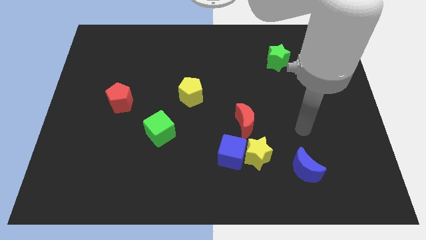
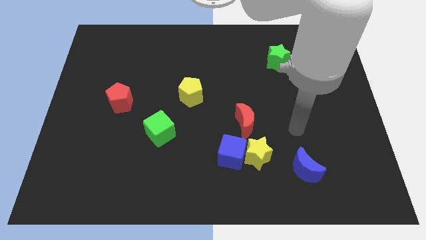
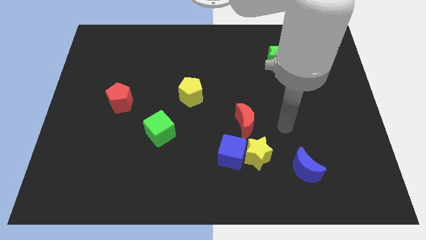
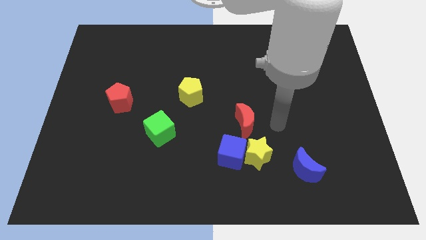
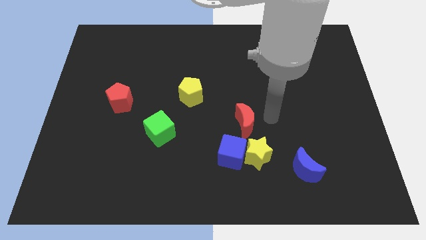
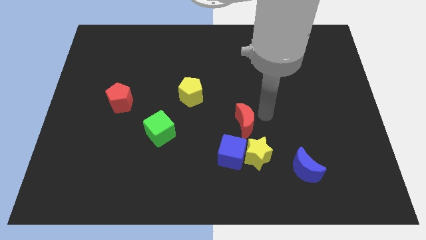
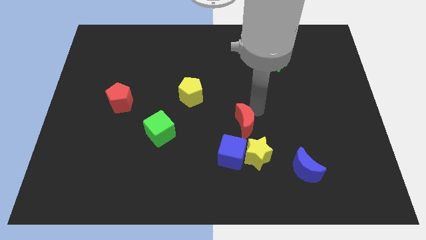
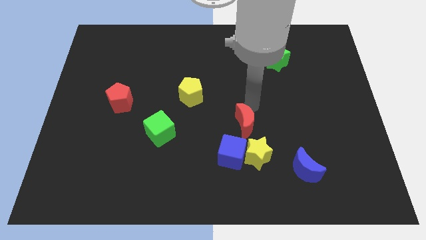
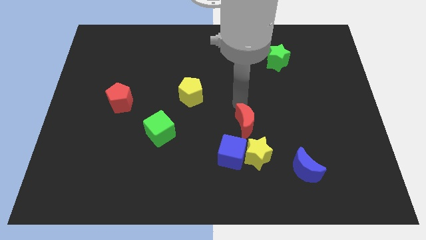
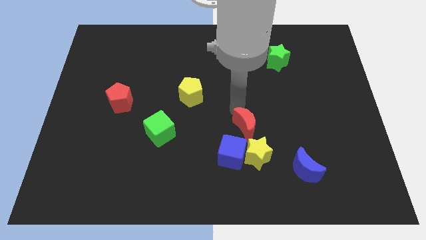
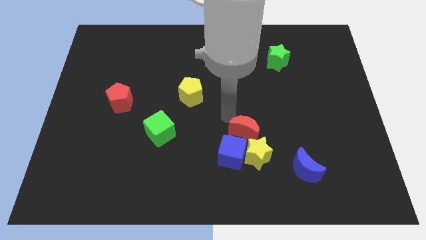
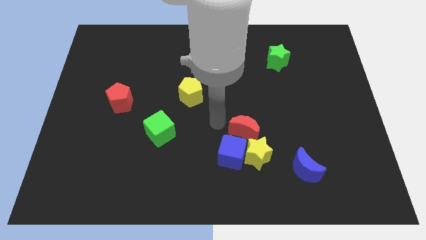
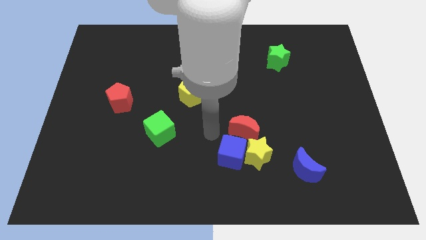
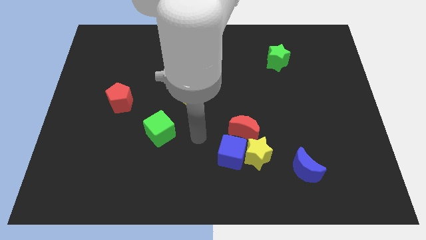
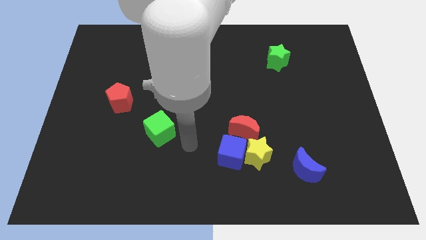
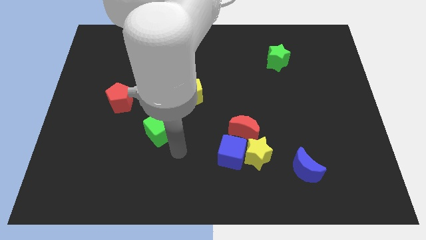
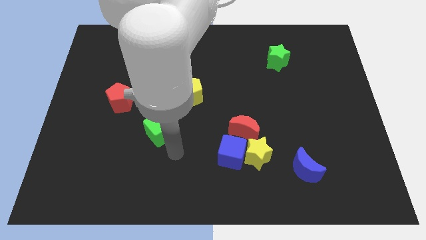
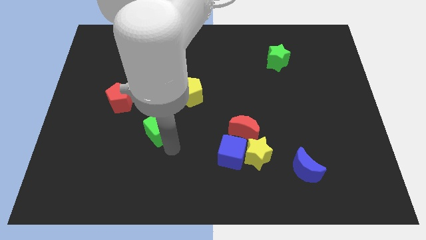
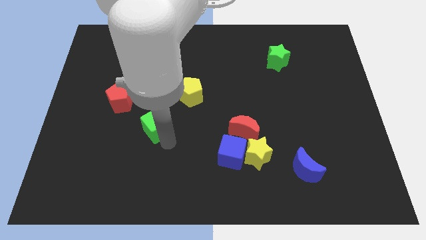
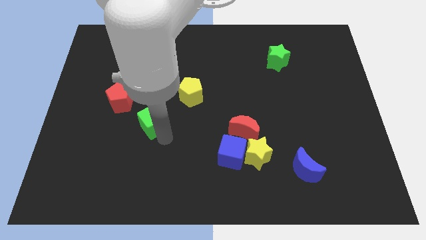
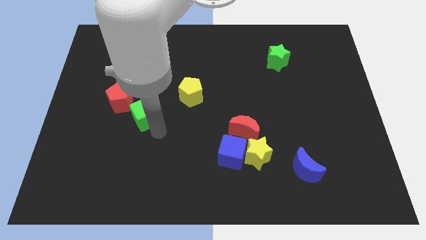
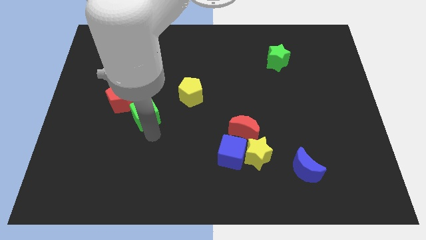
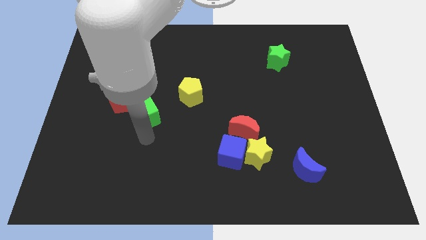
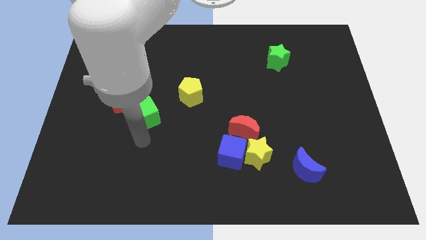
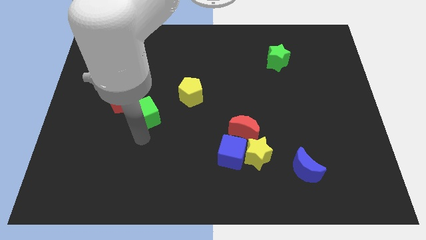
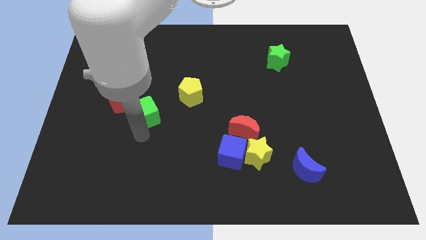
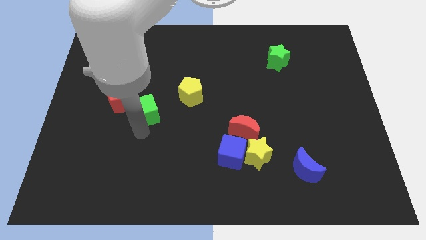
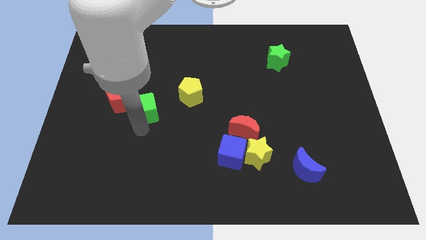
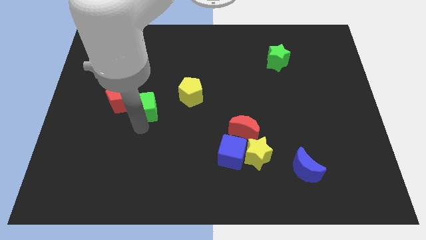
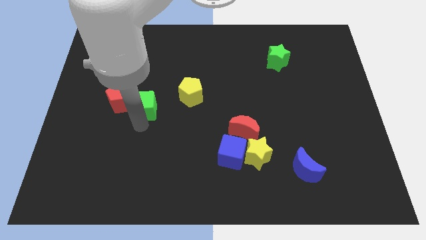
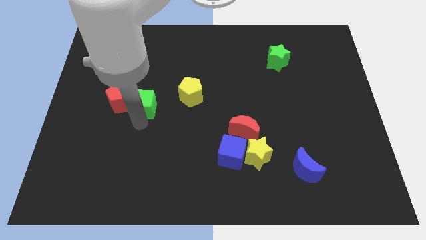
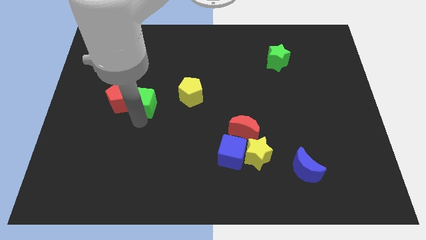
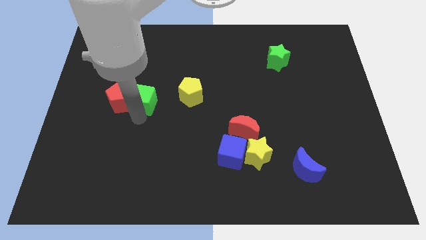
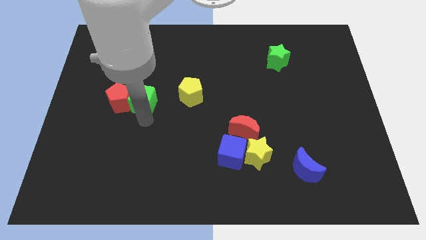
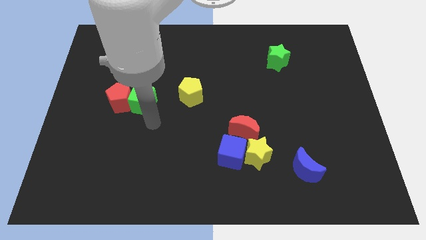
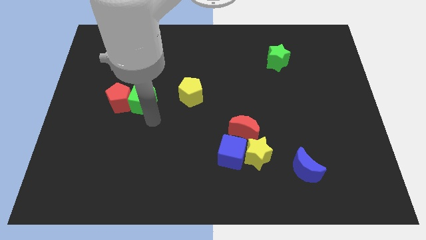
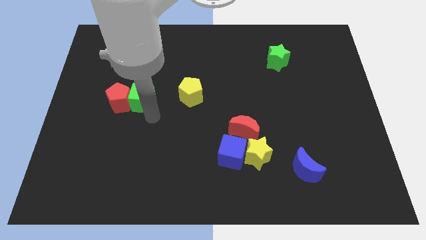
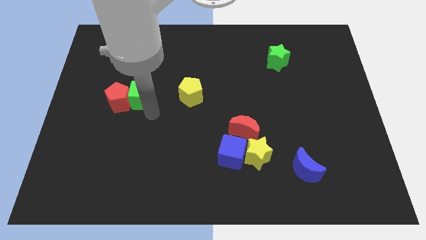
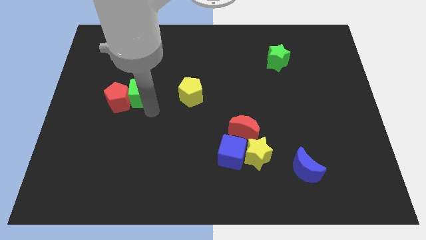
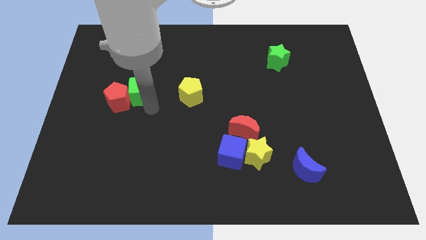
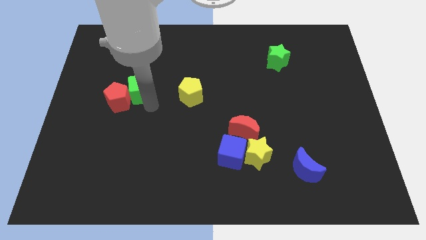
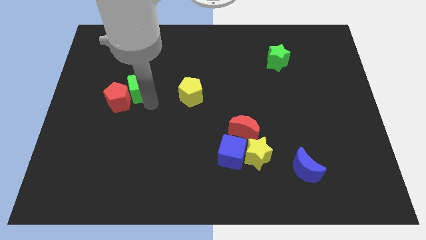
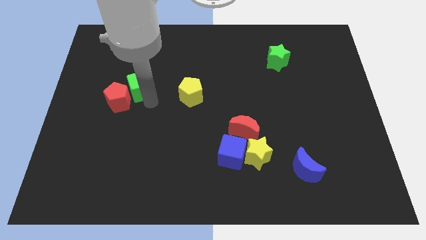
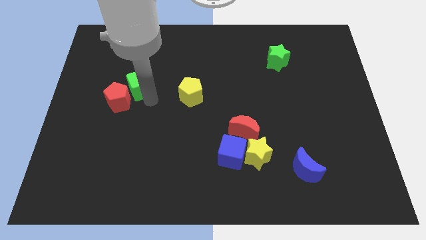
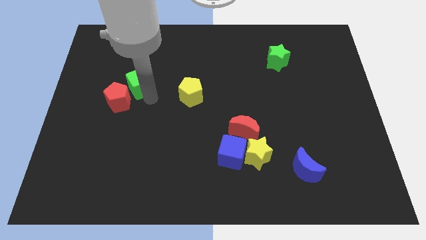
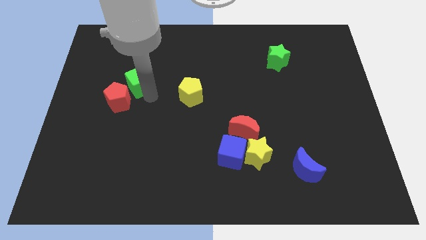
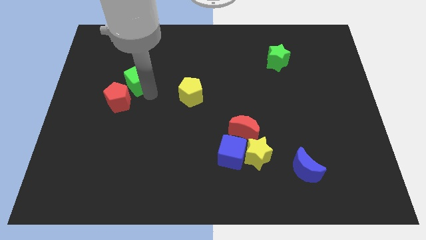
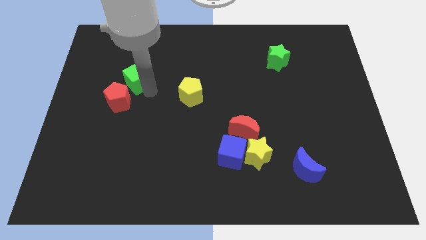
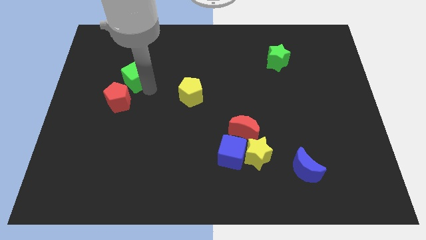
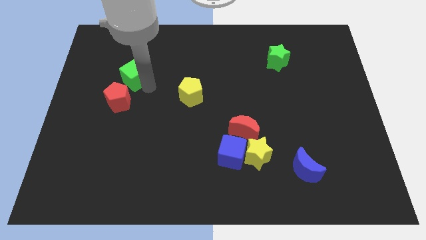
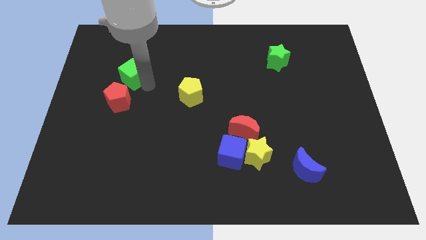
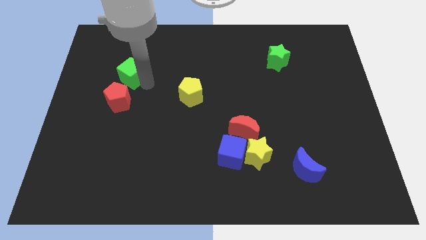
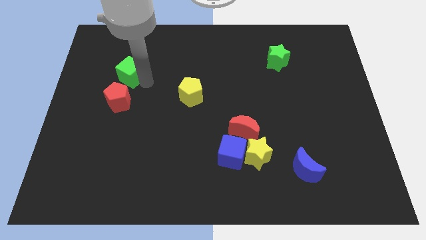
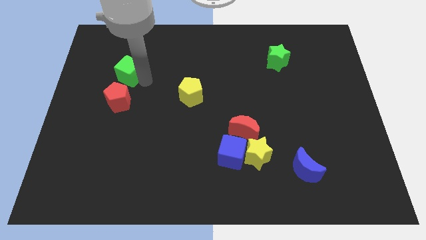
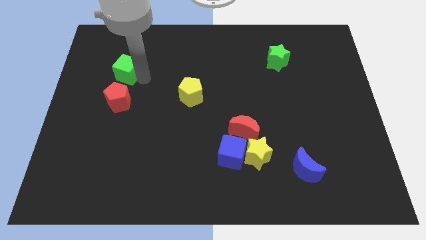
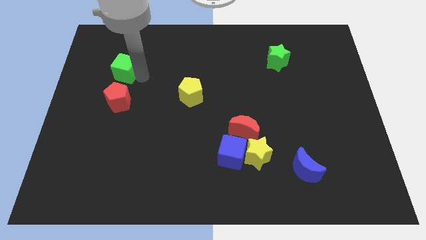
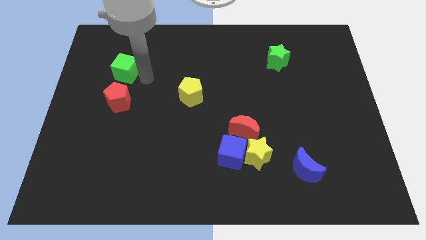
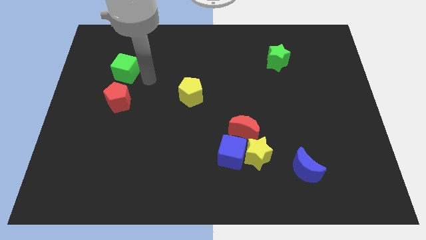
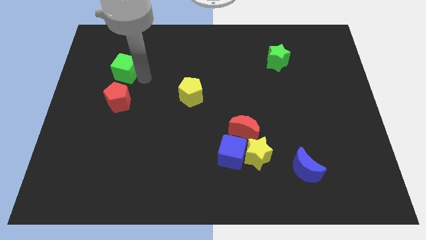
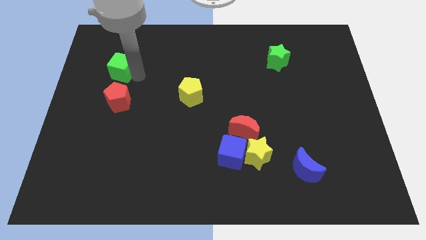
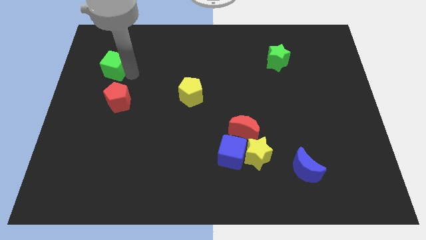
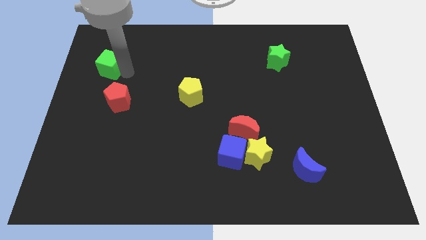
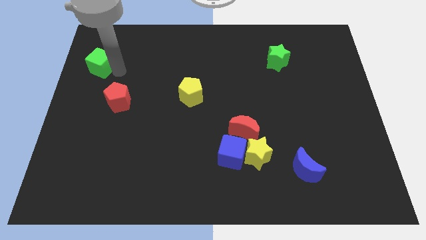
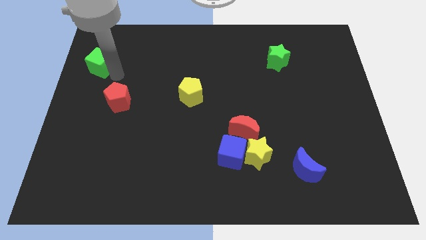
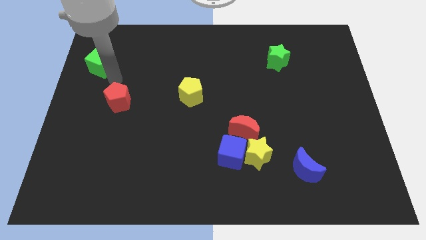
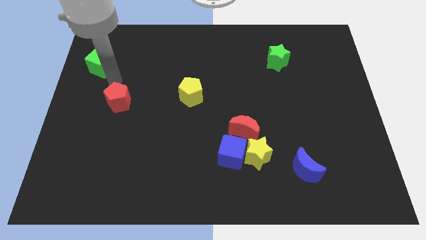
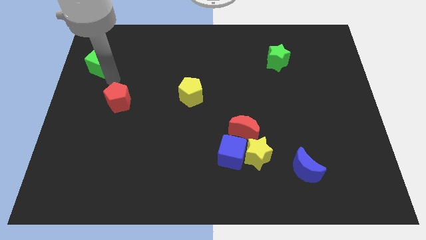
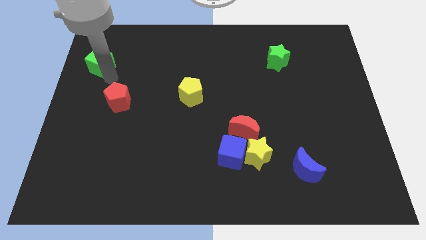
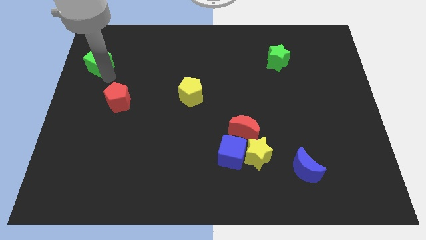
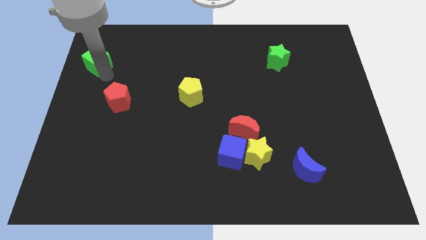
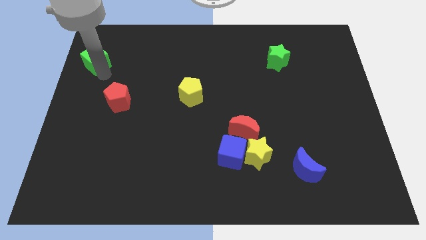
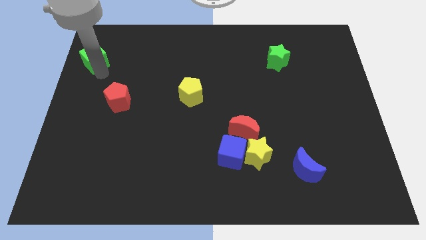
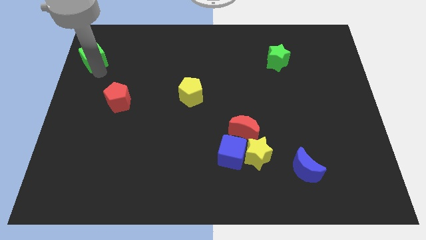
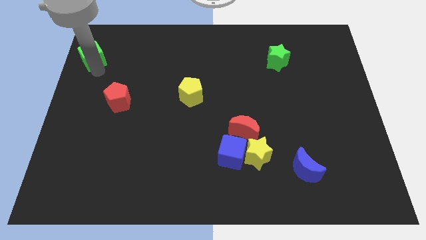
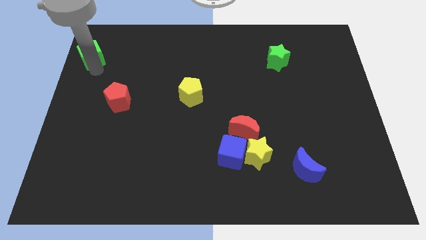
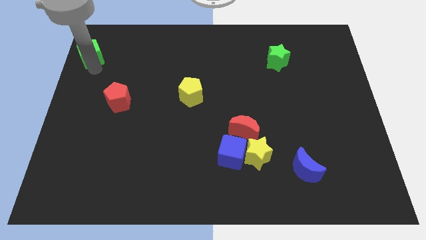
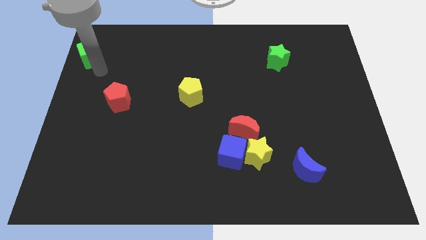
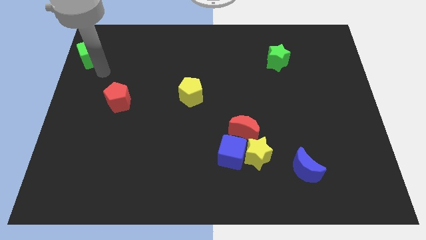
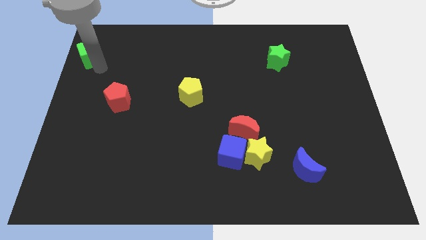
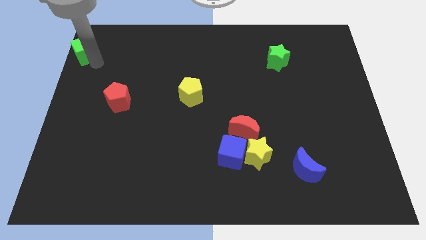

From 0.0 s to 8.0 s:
push the green cube to the top left
